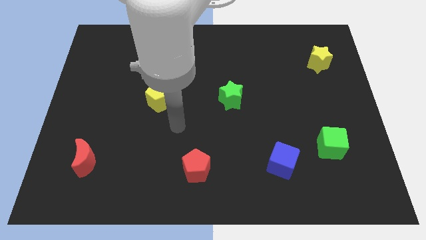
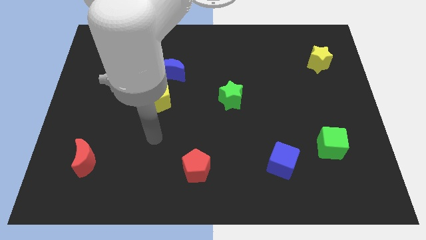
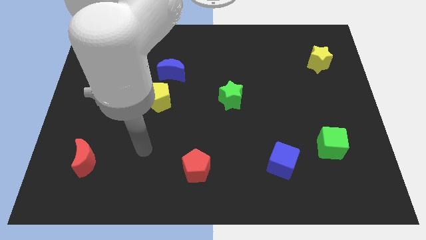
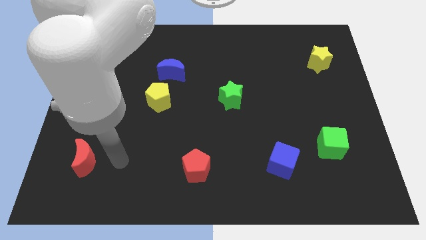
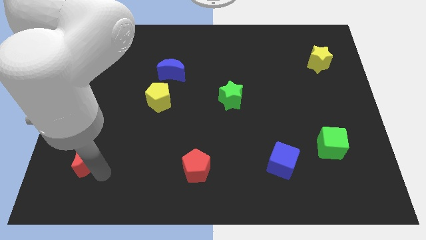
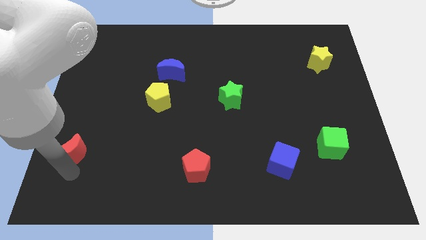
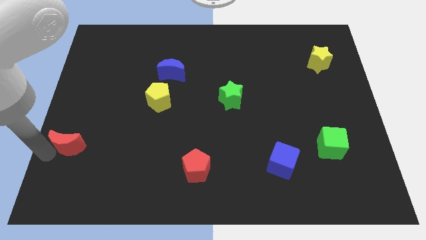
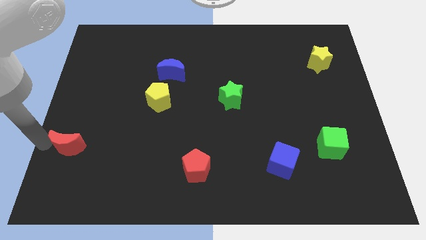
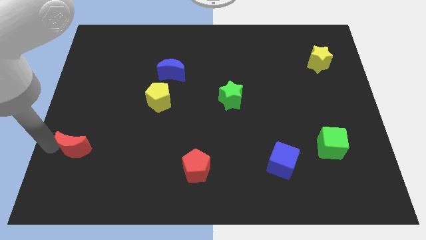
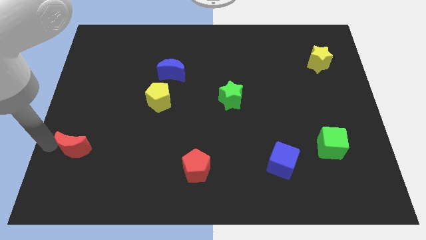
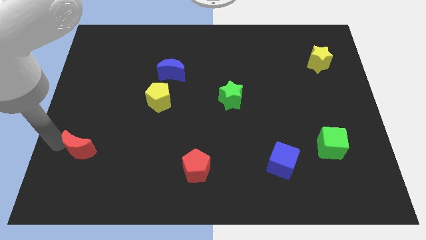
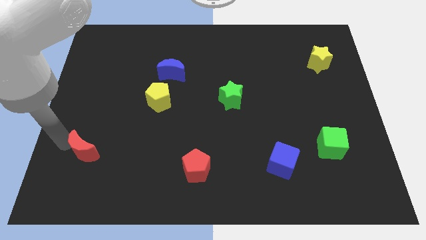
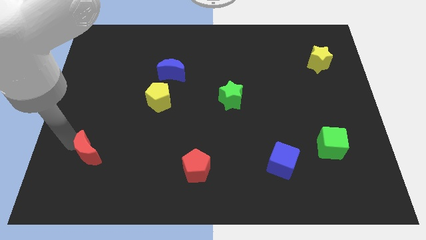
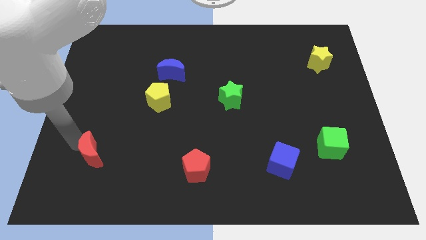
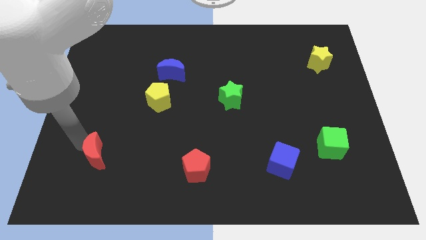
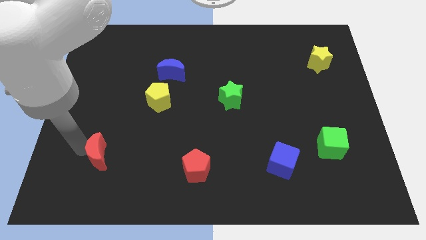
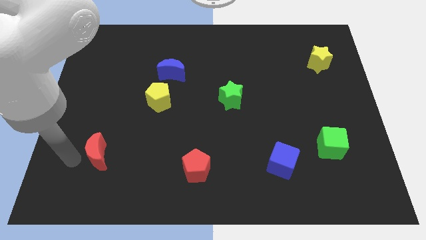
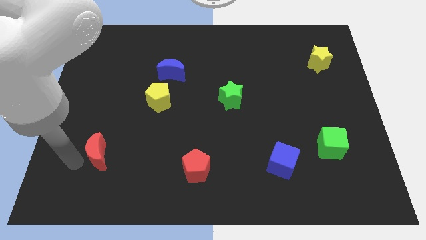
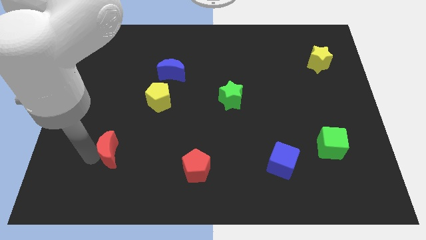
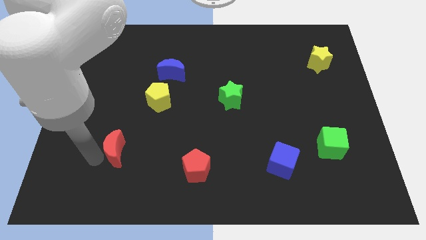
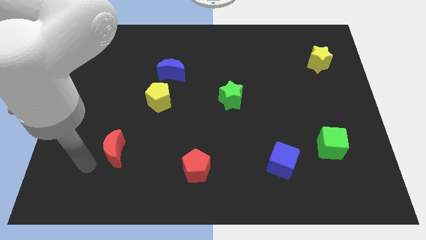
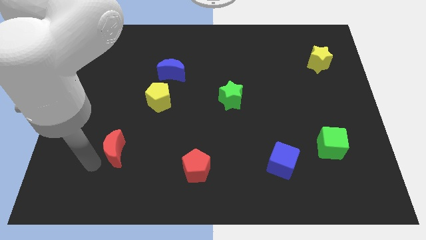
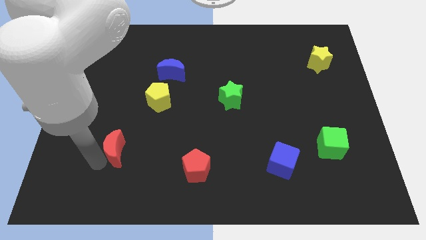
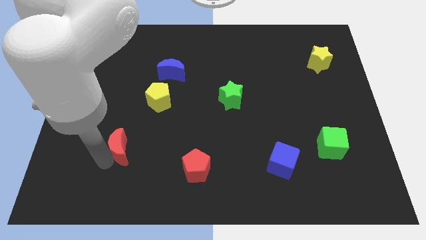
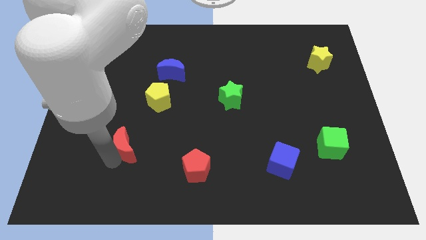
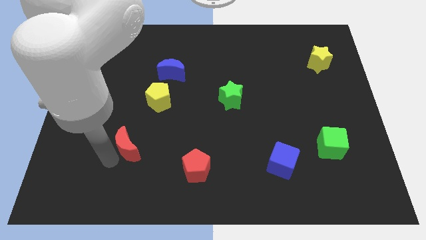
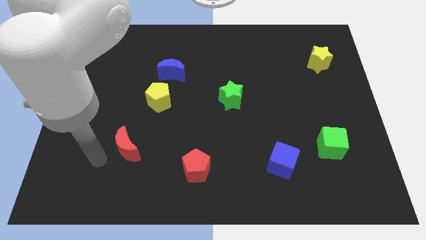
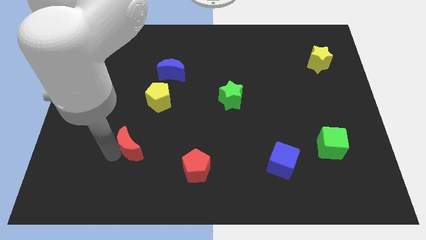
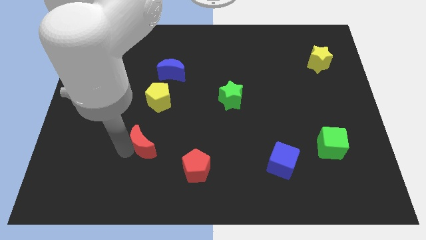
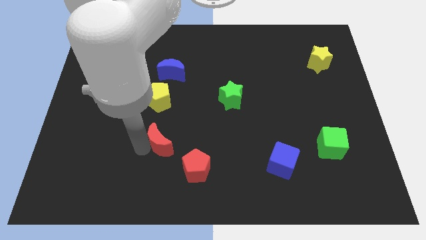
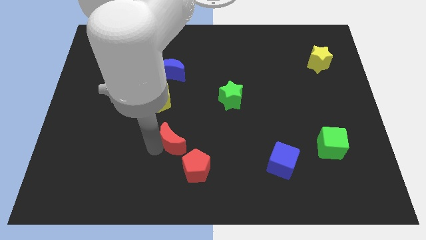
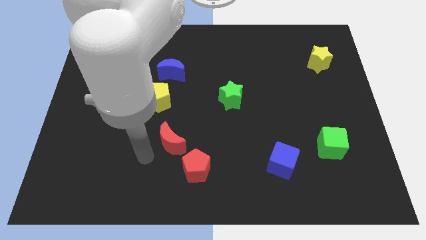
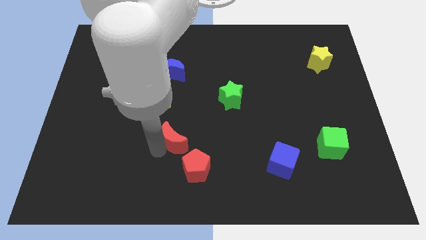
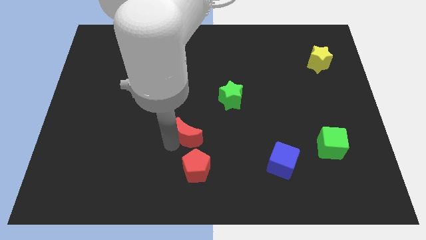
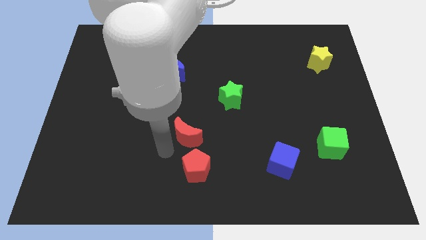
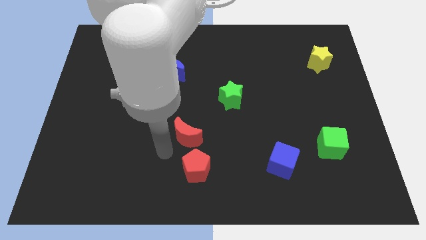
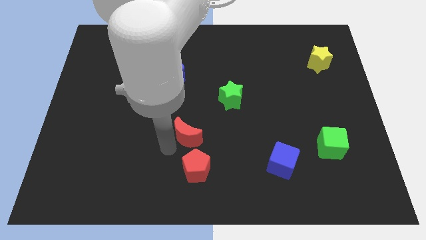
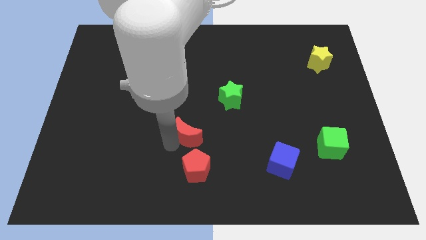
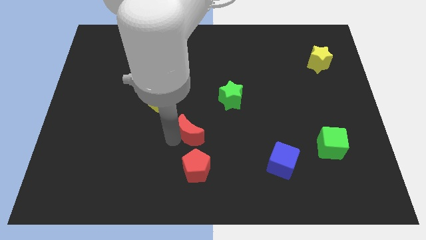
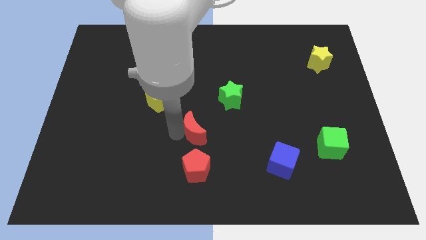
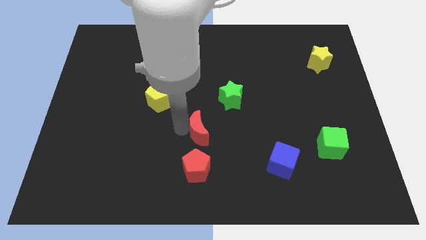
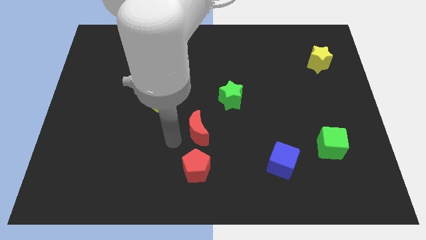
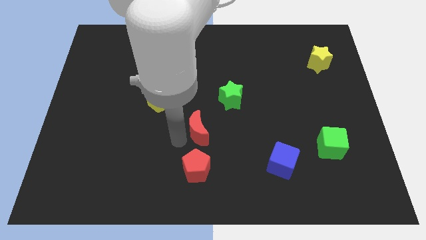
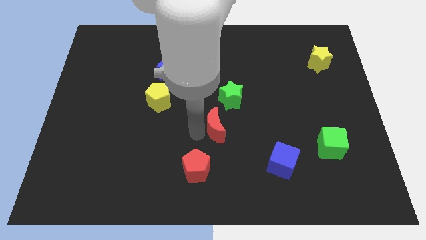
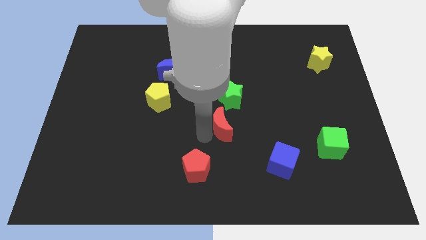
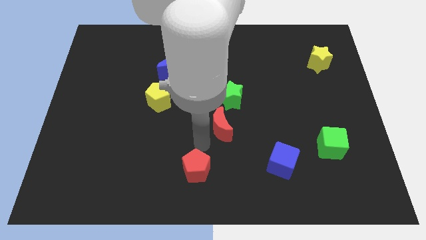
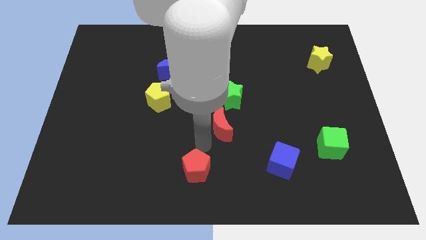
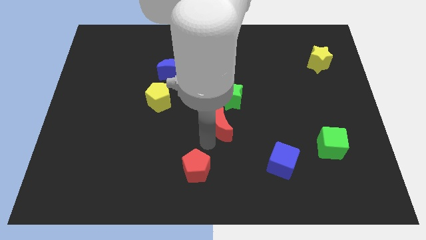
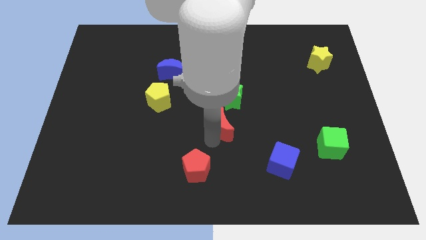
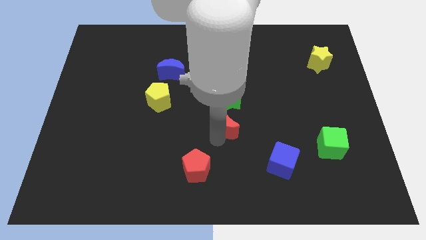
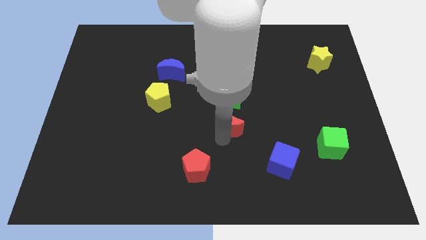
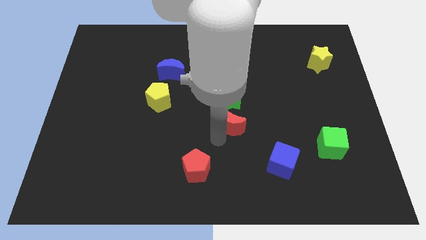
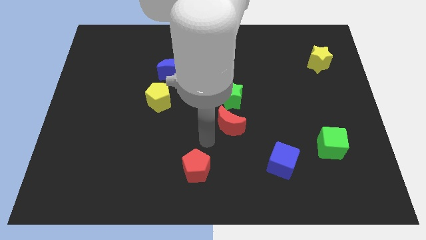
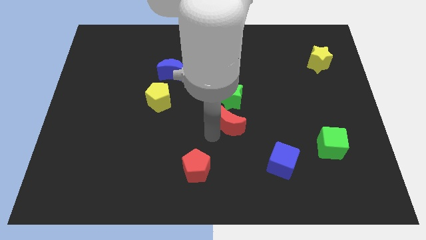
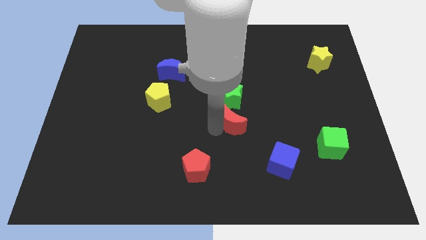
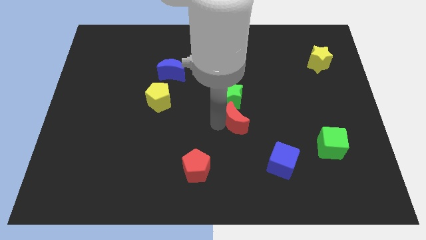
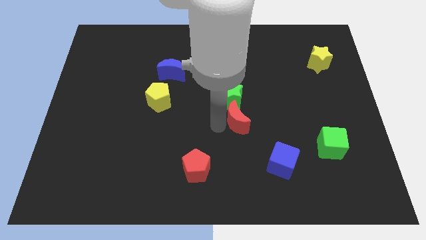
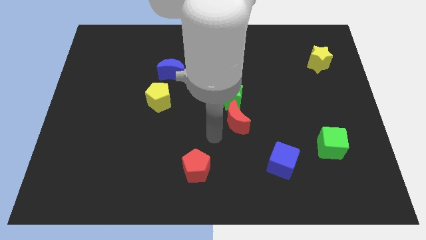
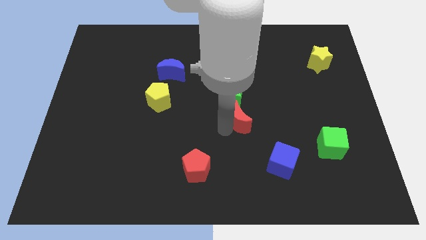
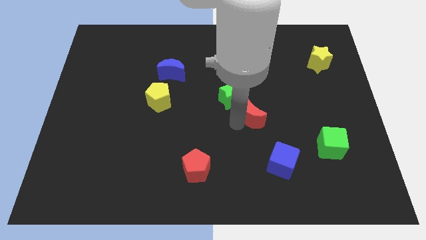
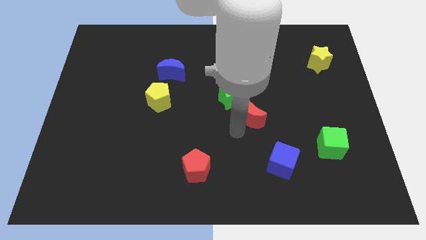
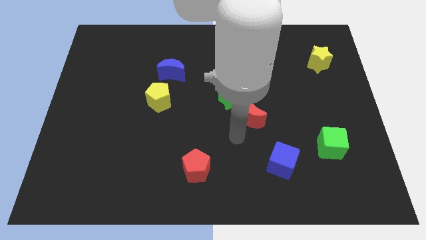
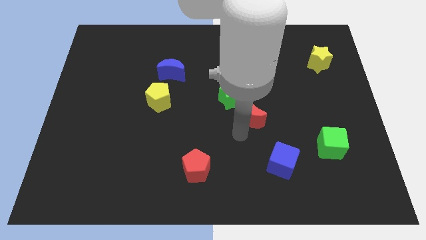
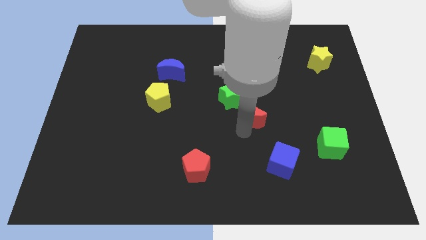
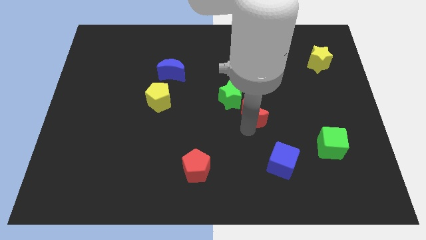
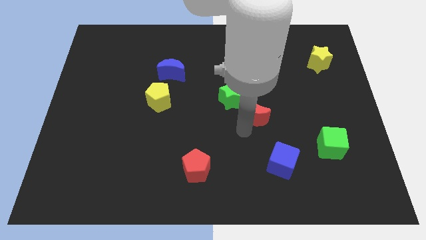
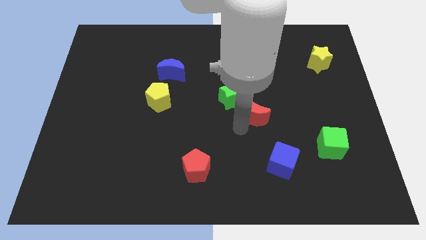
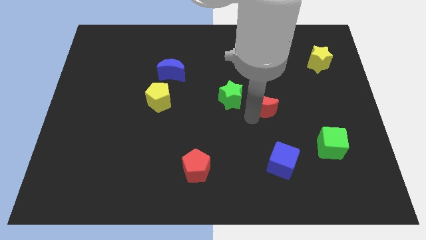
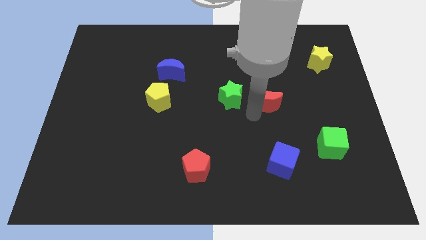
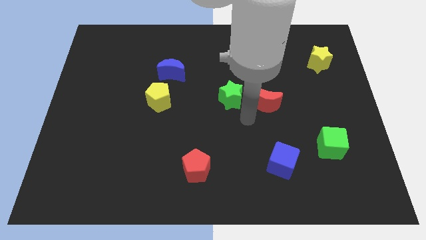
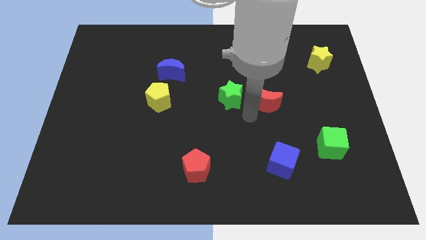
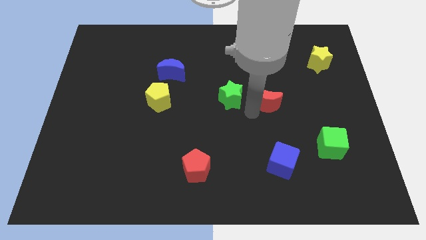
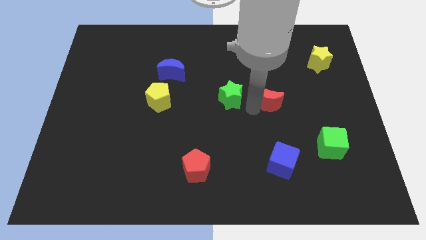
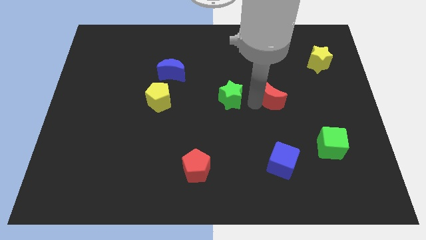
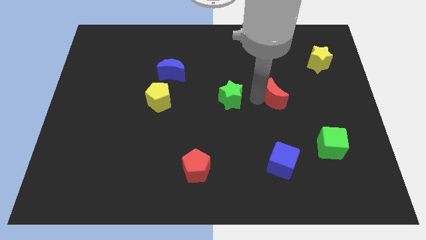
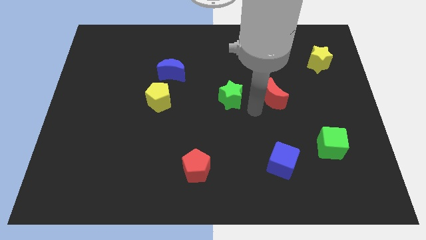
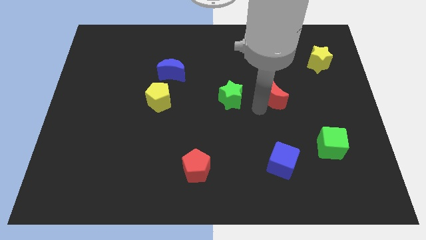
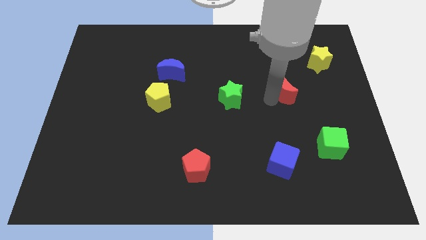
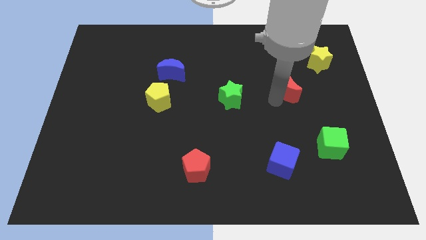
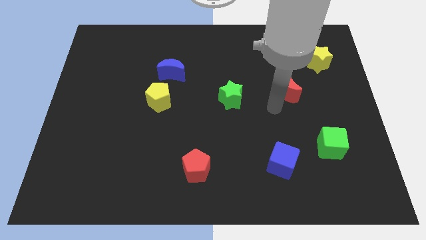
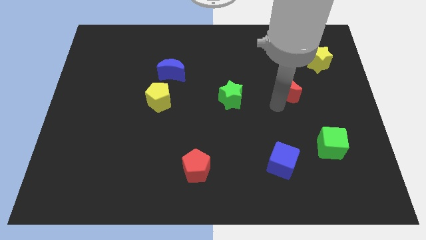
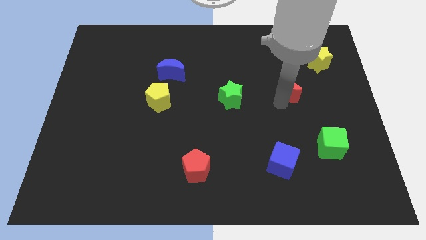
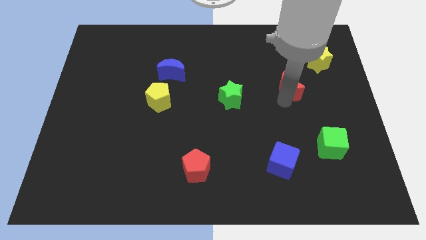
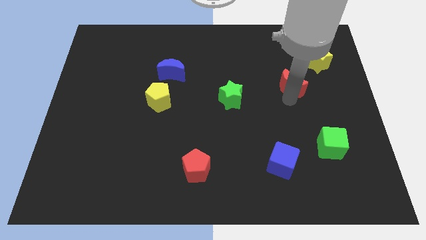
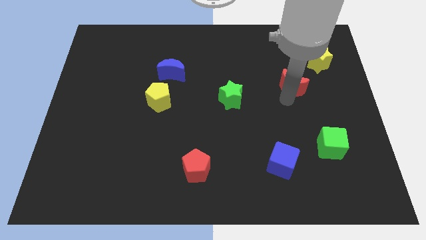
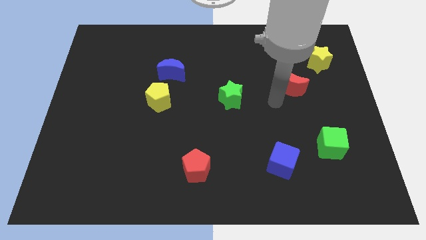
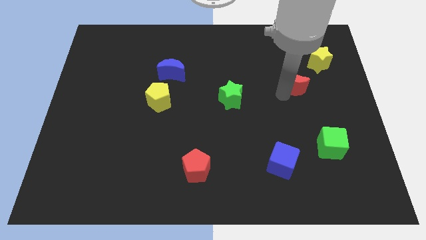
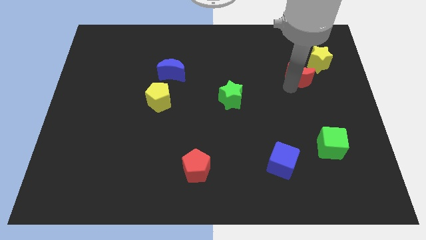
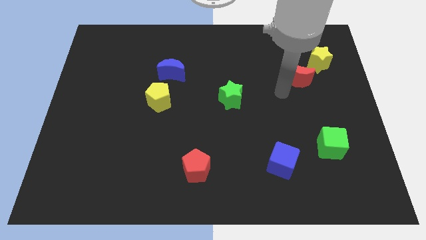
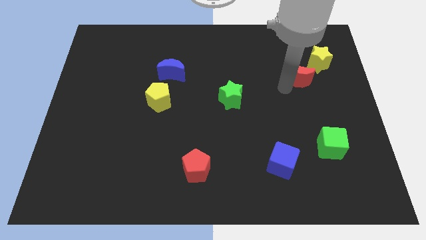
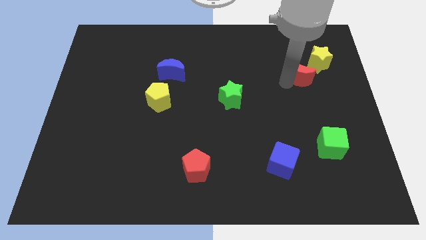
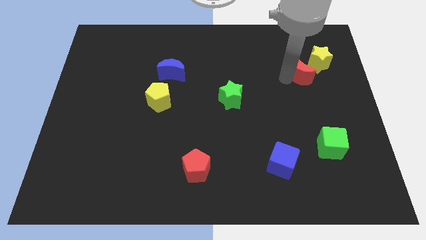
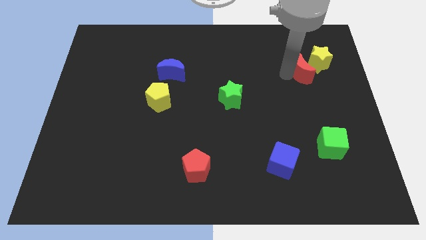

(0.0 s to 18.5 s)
put the red moon next to the yellow star
